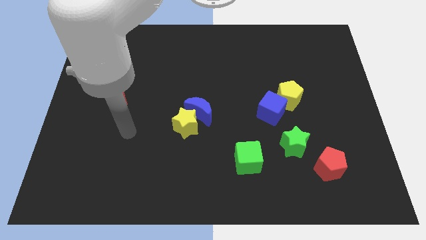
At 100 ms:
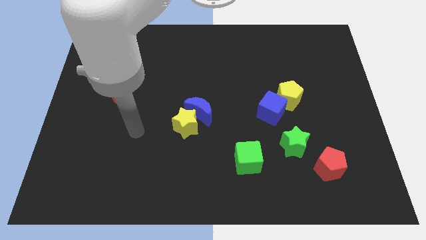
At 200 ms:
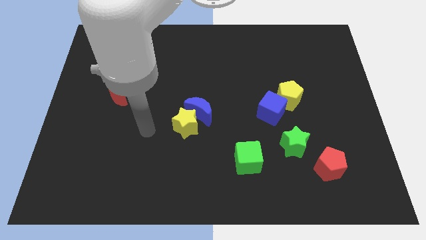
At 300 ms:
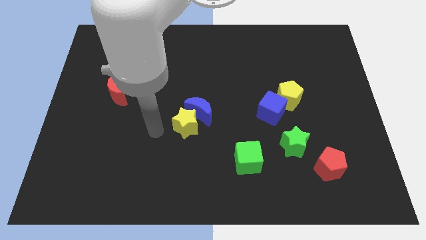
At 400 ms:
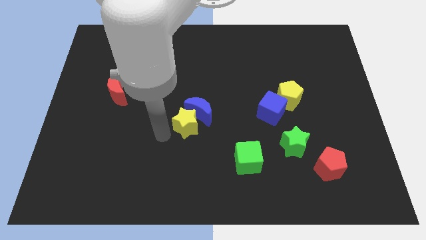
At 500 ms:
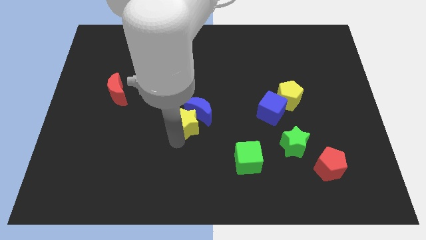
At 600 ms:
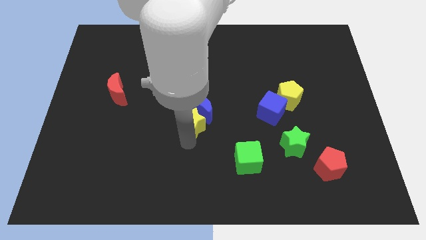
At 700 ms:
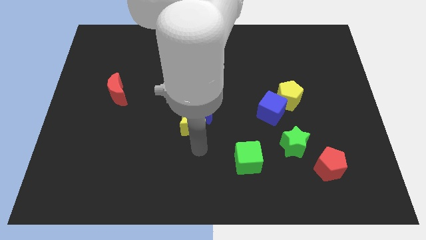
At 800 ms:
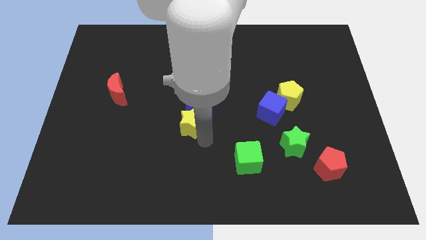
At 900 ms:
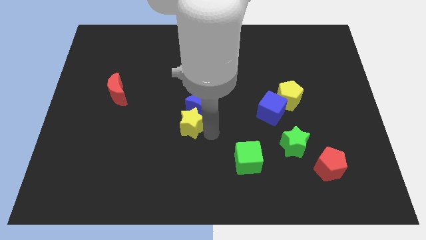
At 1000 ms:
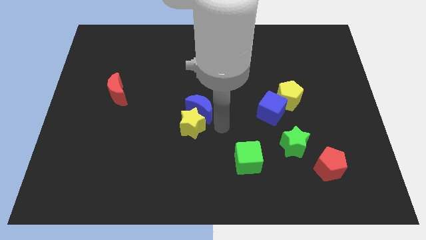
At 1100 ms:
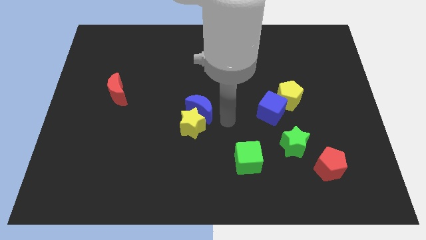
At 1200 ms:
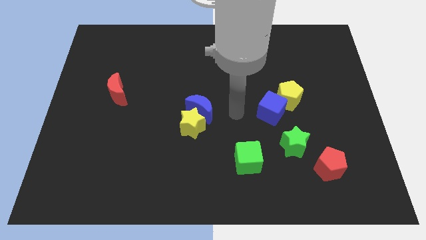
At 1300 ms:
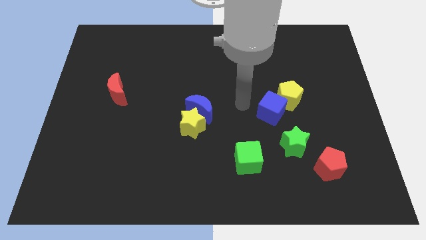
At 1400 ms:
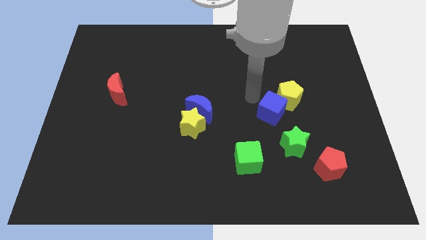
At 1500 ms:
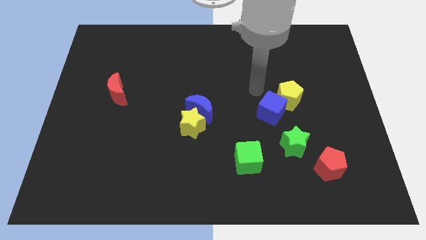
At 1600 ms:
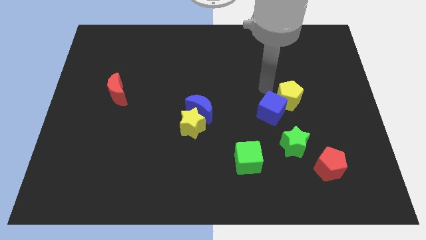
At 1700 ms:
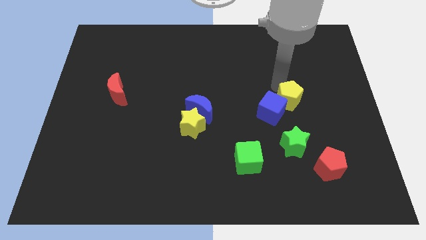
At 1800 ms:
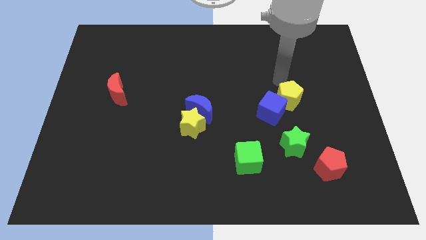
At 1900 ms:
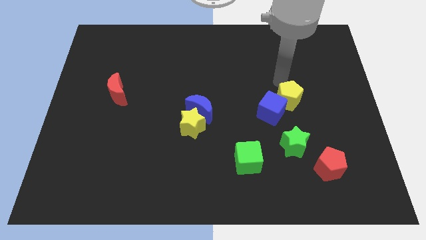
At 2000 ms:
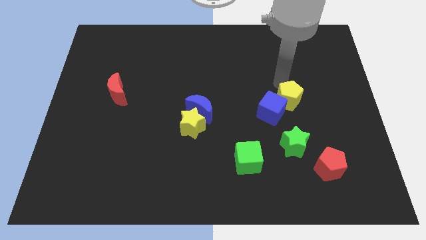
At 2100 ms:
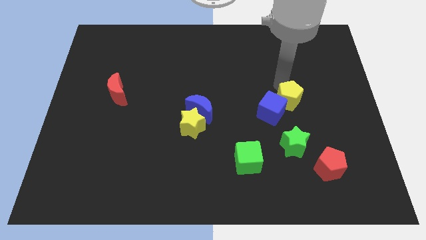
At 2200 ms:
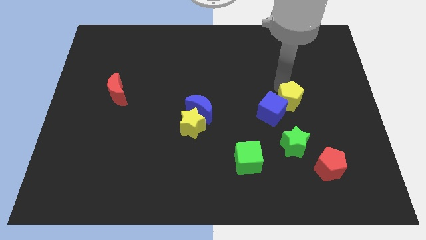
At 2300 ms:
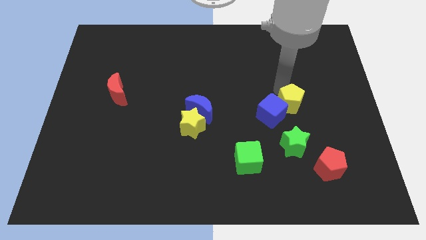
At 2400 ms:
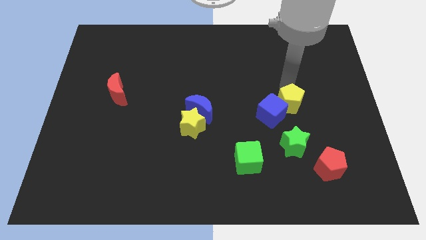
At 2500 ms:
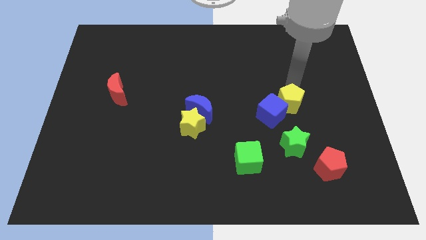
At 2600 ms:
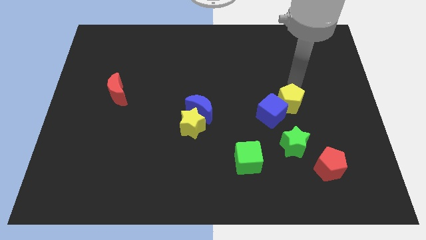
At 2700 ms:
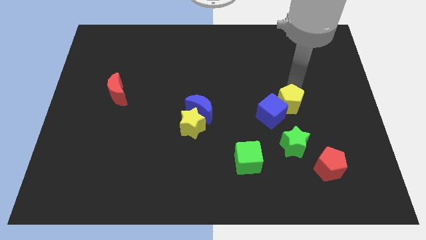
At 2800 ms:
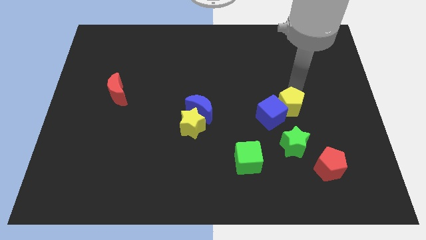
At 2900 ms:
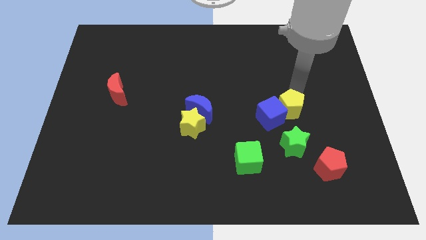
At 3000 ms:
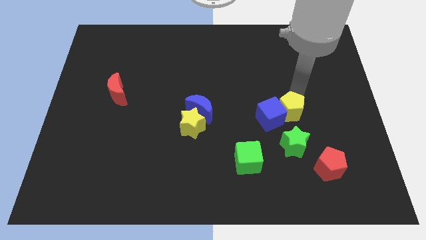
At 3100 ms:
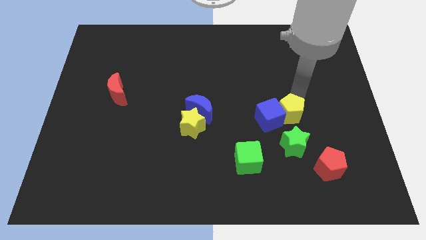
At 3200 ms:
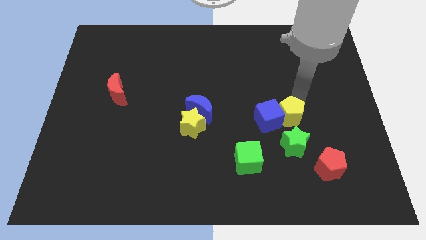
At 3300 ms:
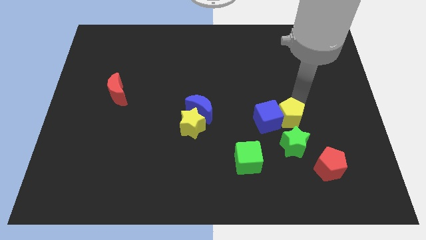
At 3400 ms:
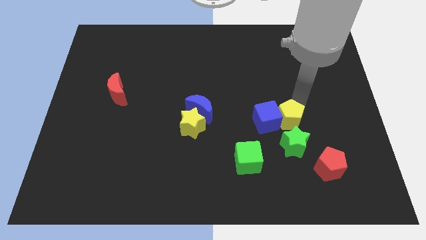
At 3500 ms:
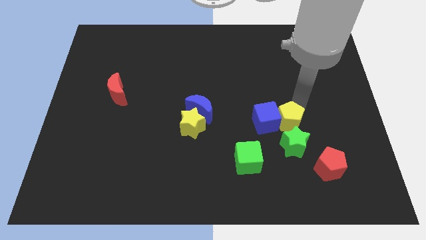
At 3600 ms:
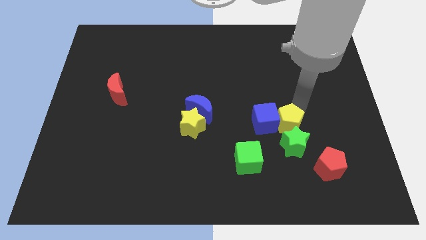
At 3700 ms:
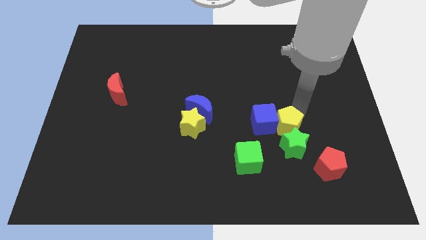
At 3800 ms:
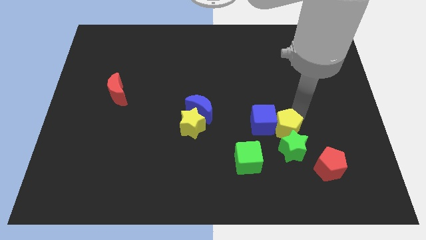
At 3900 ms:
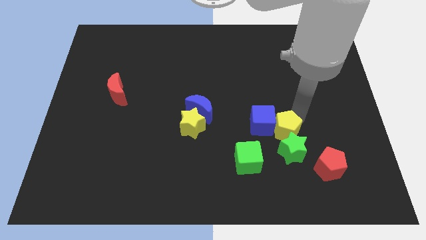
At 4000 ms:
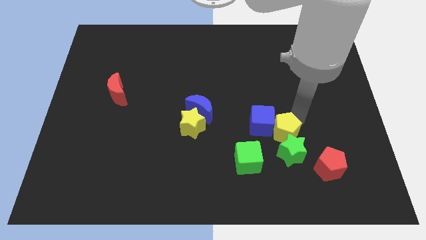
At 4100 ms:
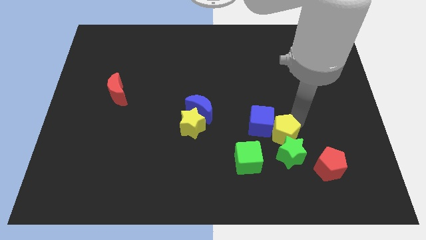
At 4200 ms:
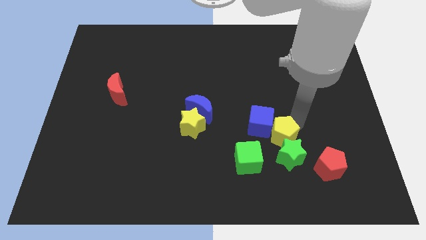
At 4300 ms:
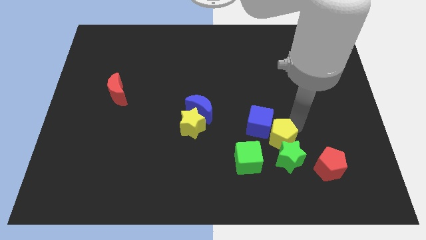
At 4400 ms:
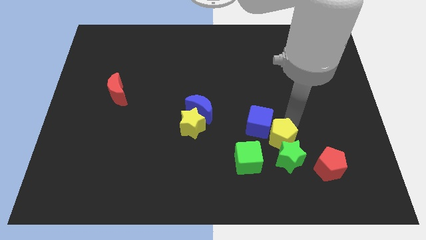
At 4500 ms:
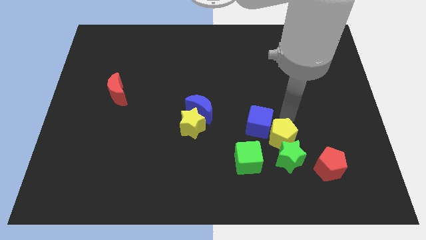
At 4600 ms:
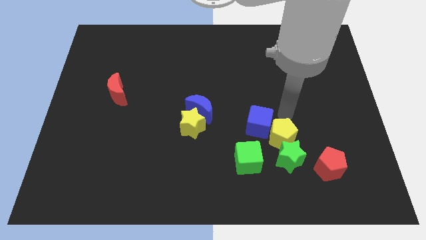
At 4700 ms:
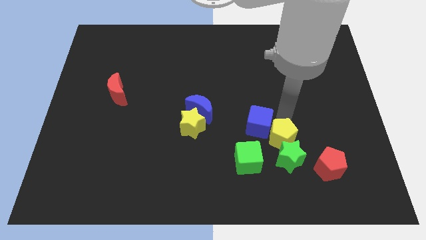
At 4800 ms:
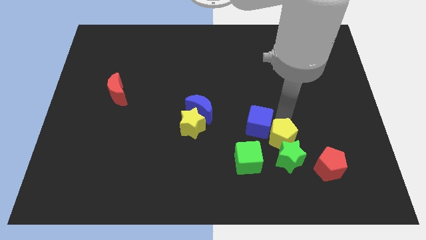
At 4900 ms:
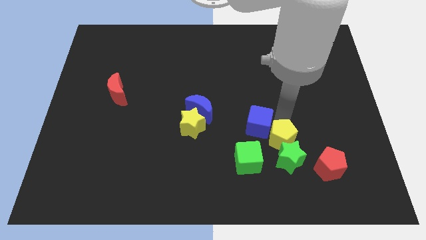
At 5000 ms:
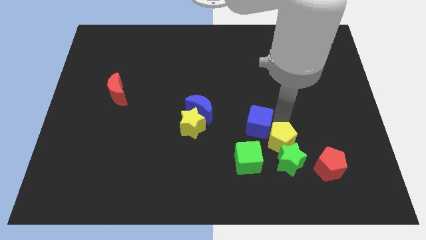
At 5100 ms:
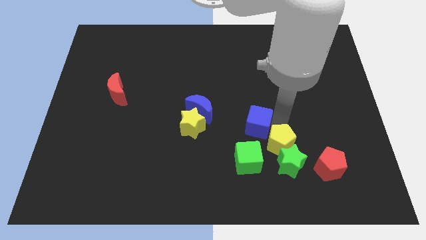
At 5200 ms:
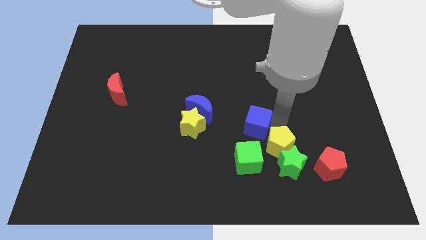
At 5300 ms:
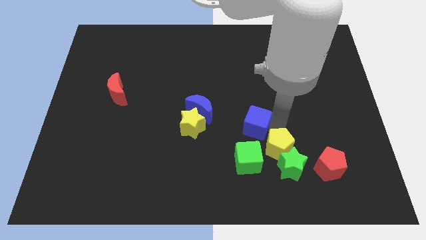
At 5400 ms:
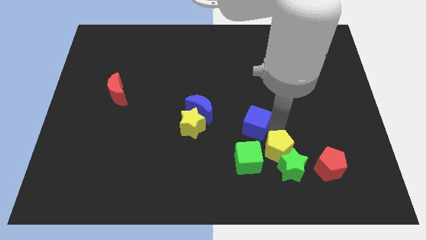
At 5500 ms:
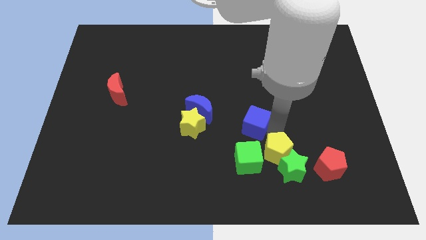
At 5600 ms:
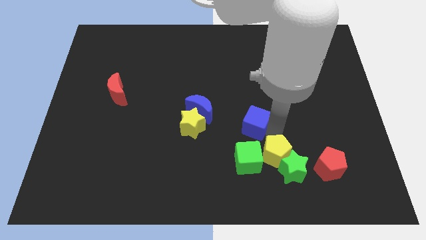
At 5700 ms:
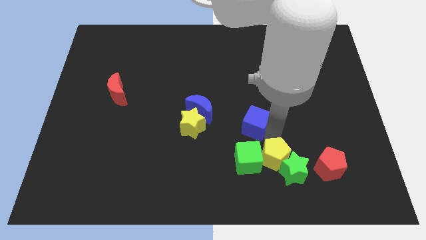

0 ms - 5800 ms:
put the yellow pentagon to the bottom right of the green cube
